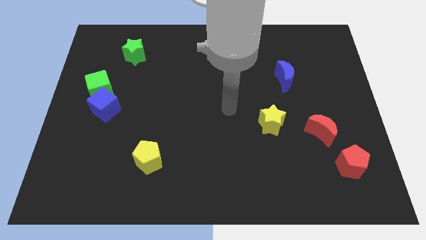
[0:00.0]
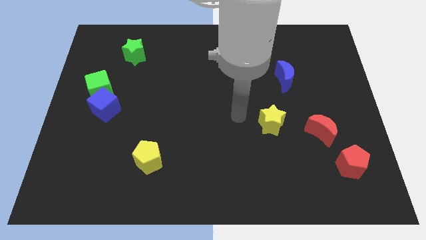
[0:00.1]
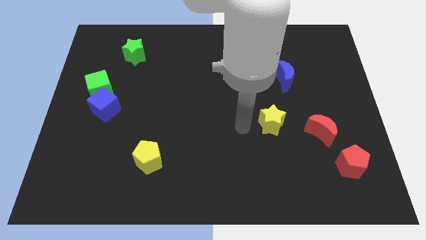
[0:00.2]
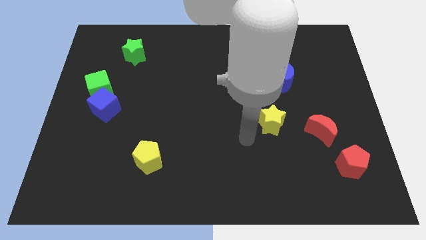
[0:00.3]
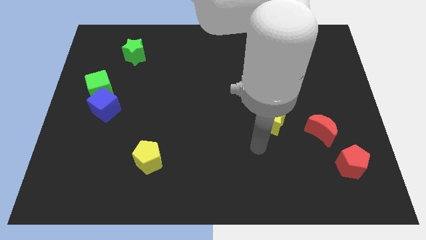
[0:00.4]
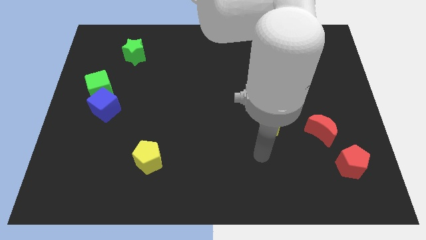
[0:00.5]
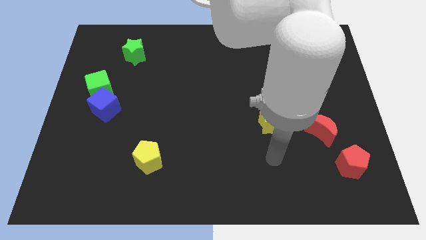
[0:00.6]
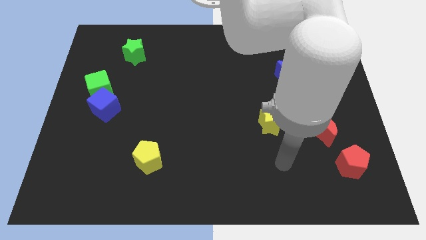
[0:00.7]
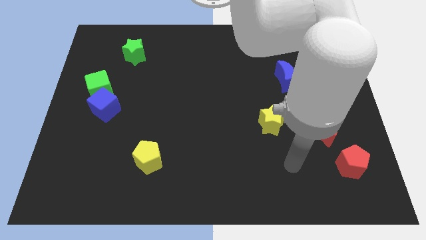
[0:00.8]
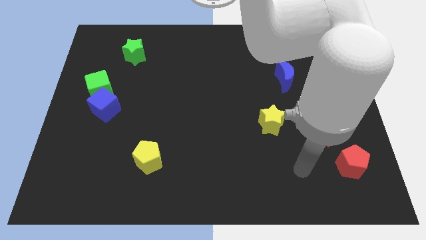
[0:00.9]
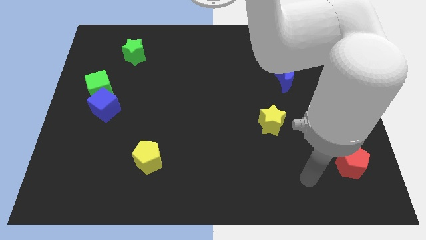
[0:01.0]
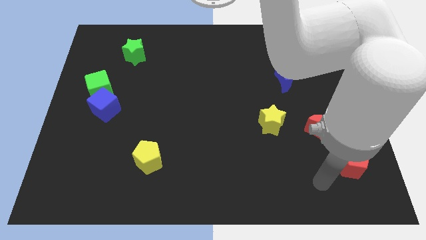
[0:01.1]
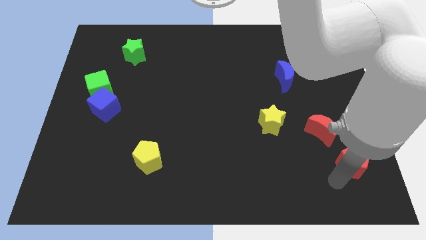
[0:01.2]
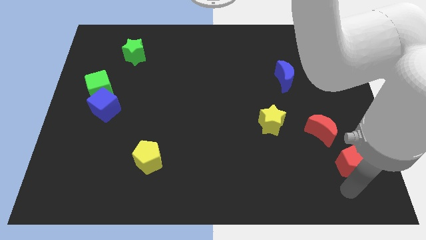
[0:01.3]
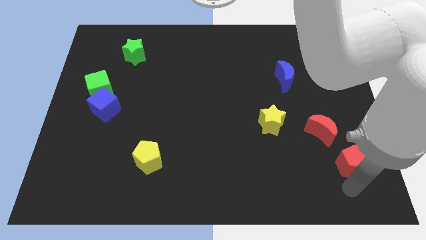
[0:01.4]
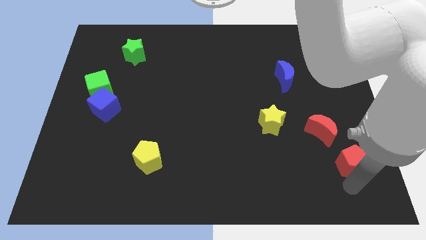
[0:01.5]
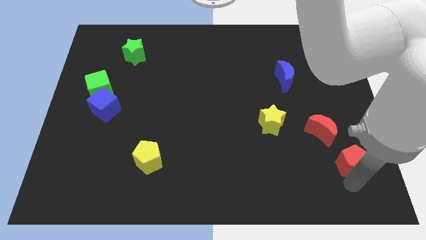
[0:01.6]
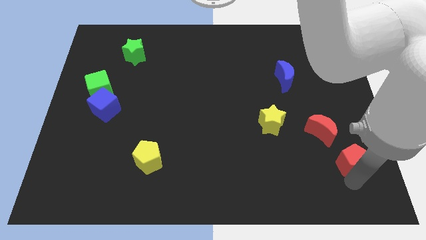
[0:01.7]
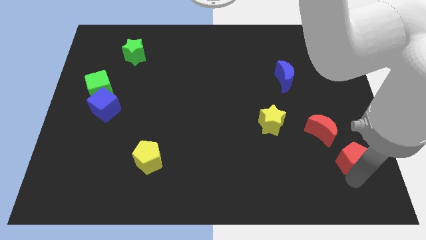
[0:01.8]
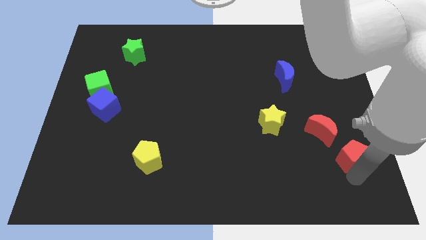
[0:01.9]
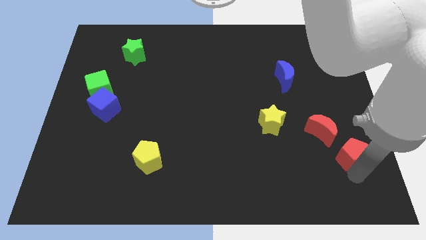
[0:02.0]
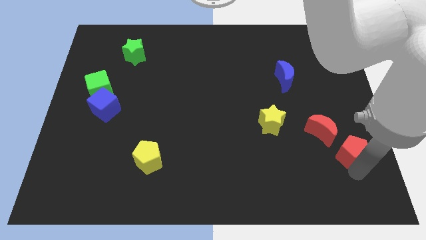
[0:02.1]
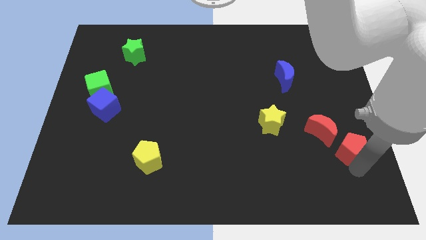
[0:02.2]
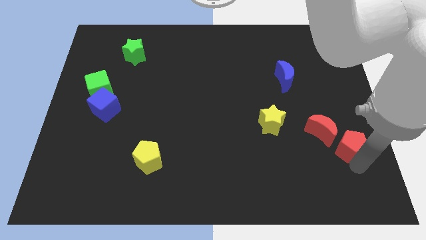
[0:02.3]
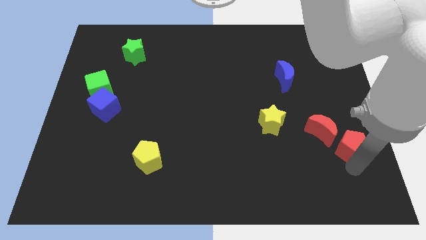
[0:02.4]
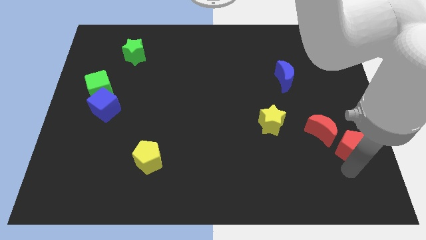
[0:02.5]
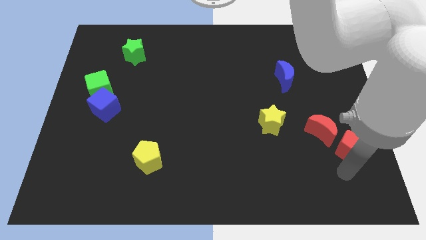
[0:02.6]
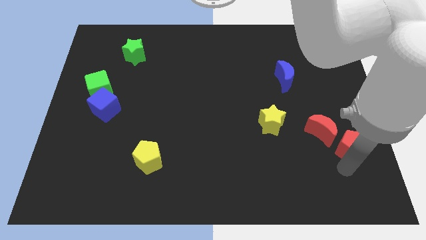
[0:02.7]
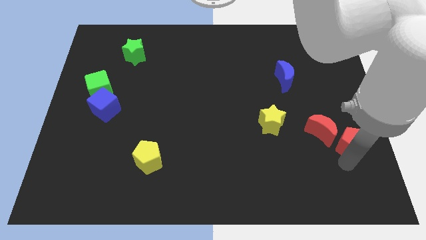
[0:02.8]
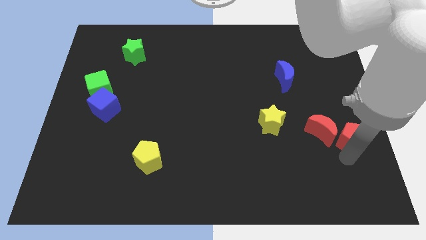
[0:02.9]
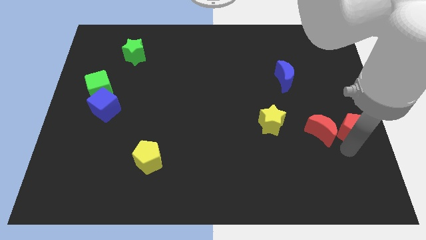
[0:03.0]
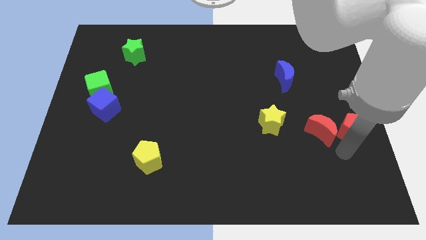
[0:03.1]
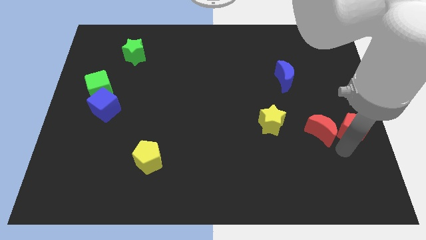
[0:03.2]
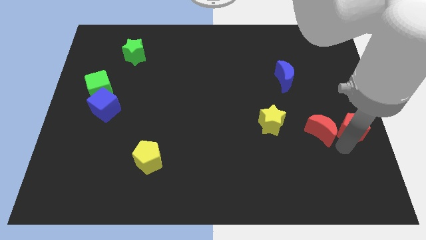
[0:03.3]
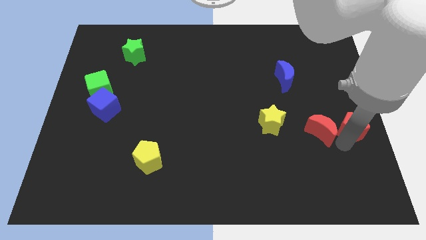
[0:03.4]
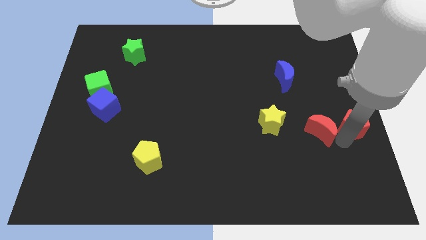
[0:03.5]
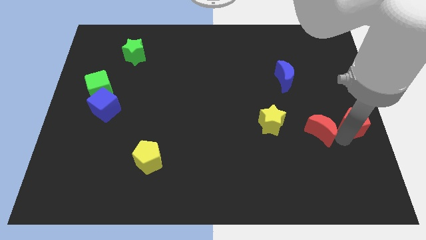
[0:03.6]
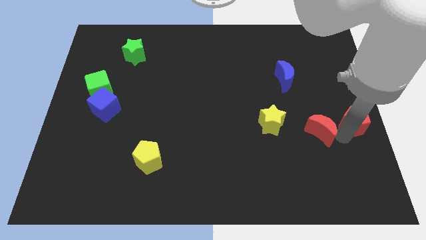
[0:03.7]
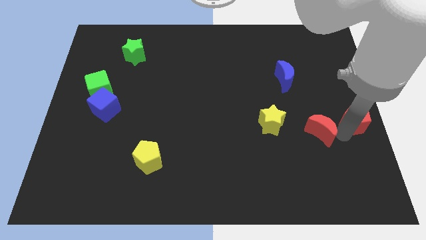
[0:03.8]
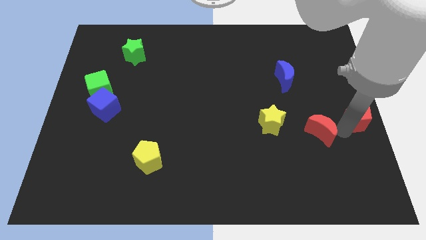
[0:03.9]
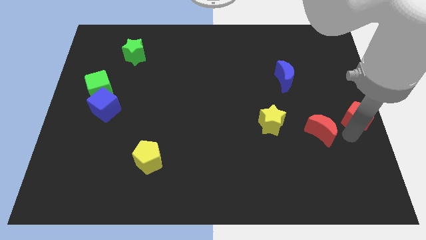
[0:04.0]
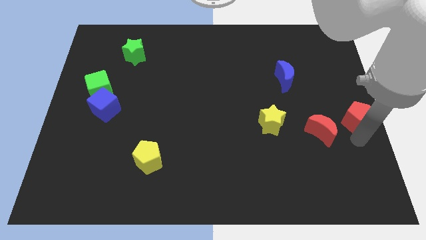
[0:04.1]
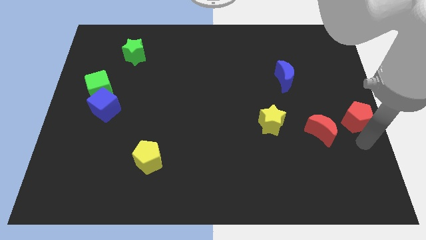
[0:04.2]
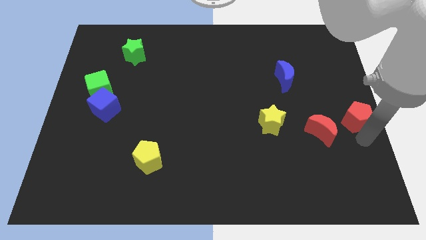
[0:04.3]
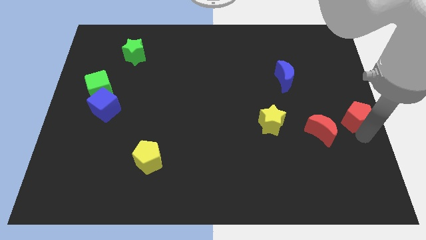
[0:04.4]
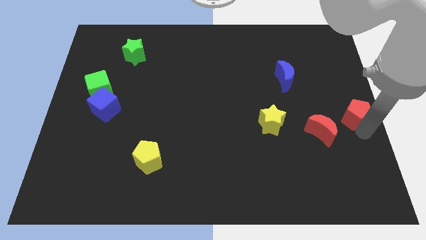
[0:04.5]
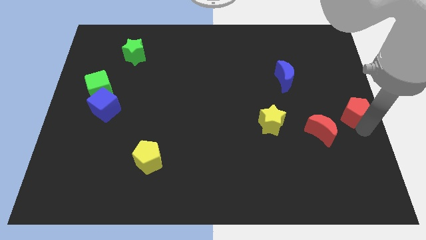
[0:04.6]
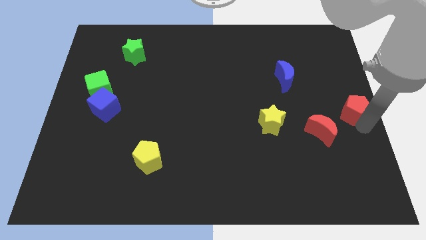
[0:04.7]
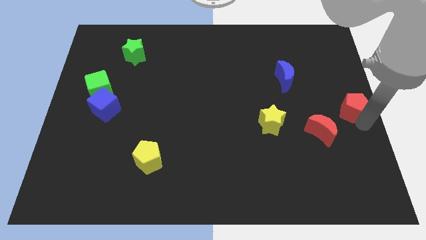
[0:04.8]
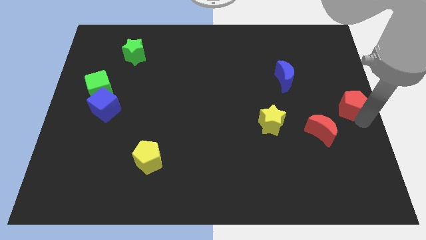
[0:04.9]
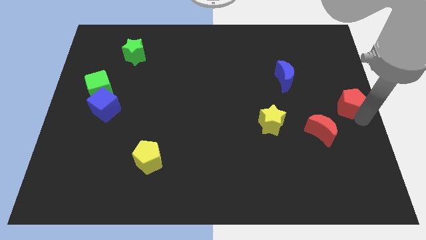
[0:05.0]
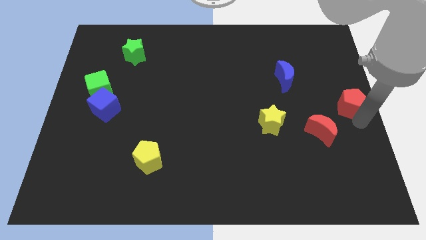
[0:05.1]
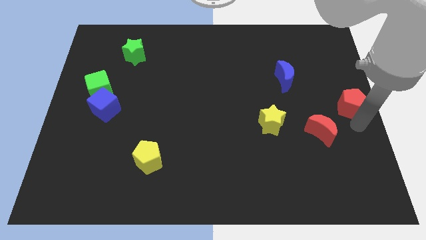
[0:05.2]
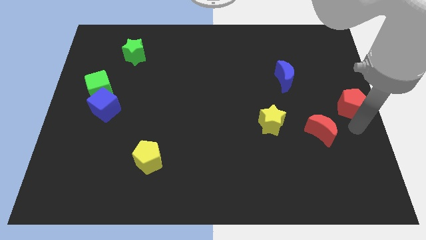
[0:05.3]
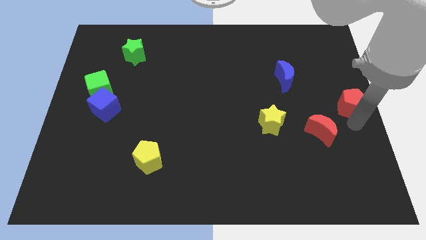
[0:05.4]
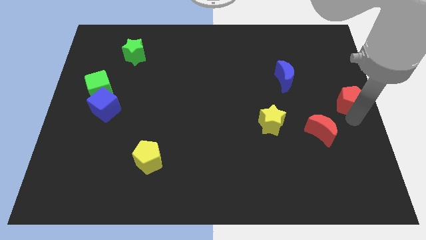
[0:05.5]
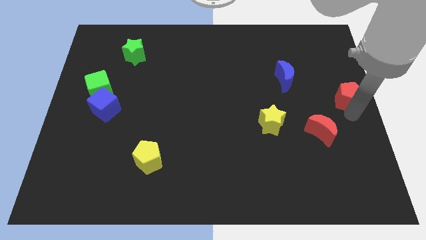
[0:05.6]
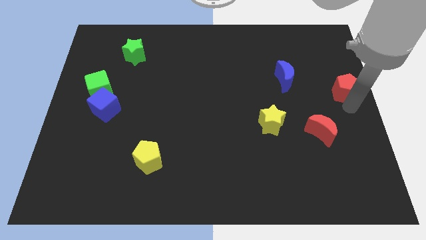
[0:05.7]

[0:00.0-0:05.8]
slide the red pentagon upwards

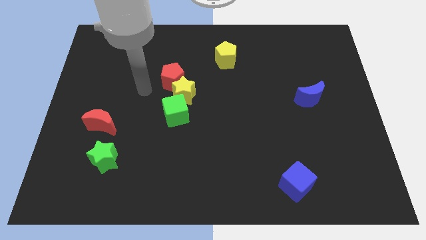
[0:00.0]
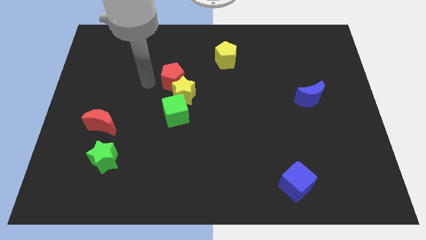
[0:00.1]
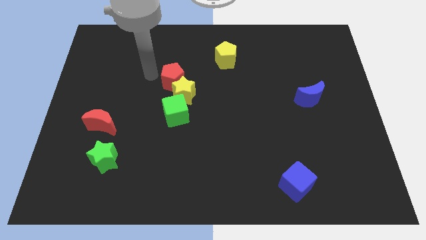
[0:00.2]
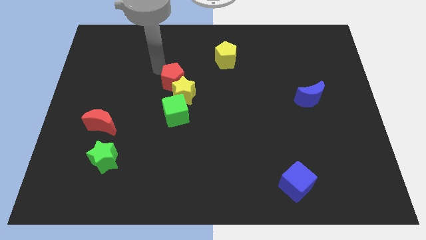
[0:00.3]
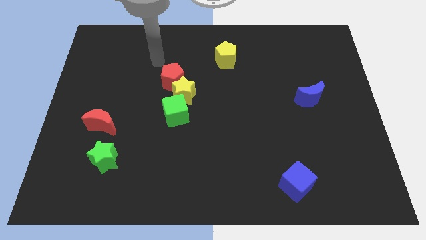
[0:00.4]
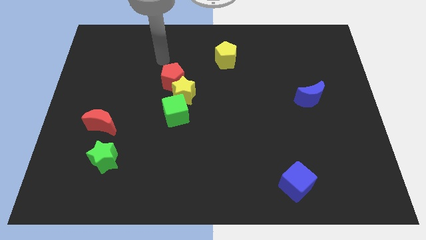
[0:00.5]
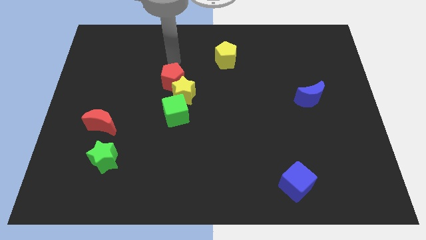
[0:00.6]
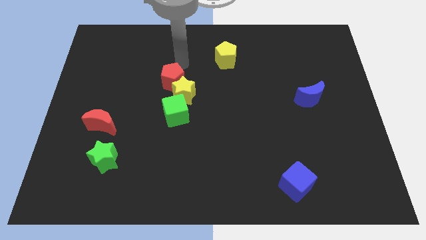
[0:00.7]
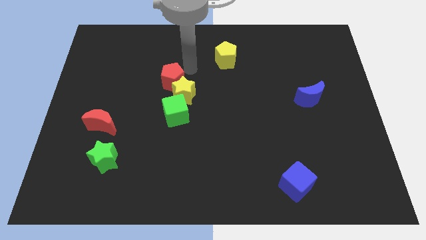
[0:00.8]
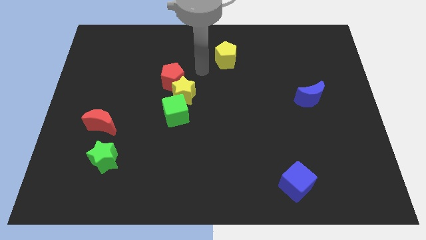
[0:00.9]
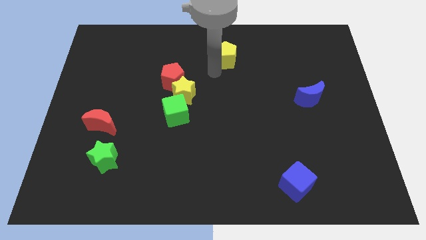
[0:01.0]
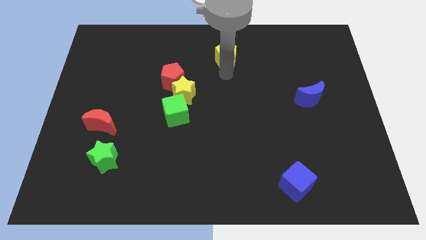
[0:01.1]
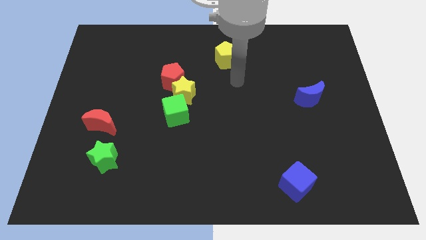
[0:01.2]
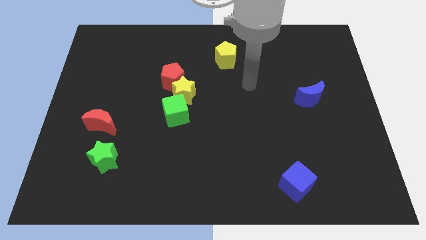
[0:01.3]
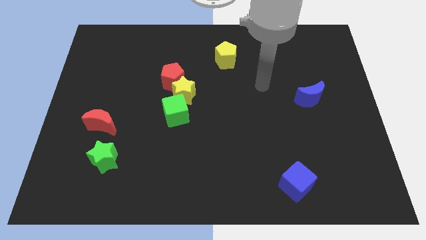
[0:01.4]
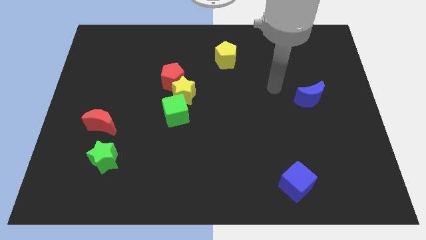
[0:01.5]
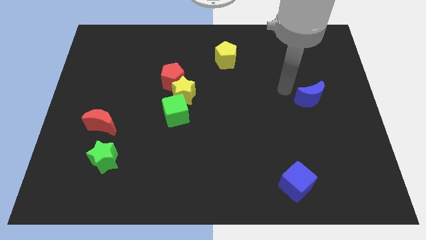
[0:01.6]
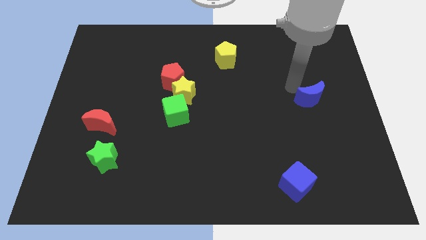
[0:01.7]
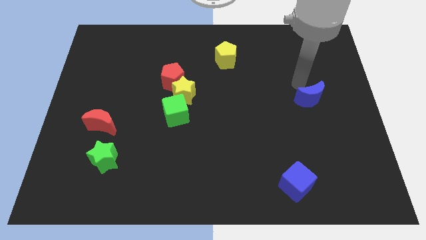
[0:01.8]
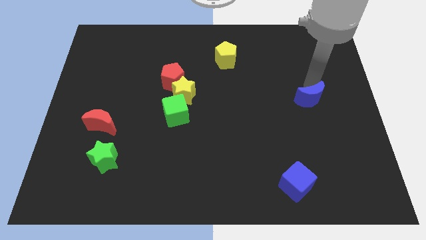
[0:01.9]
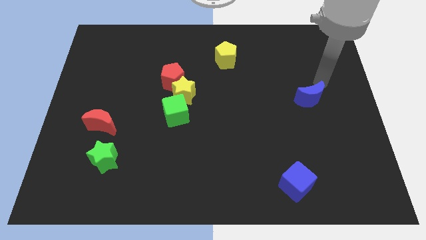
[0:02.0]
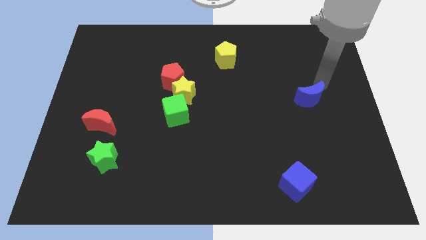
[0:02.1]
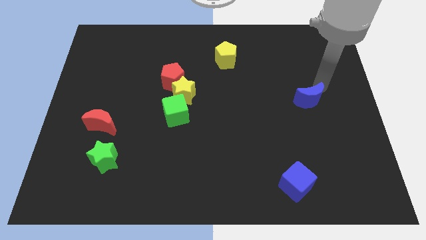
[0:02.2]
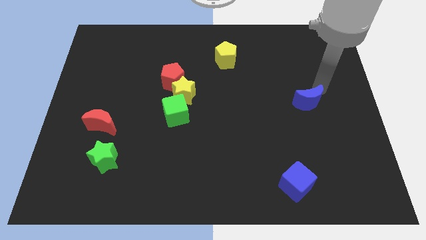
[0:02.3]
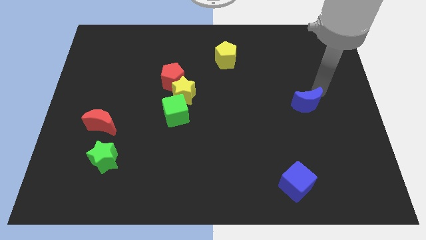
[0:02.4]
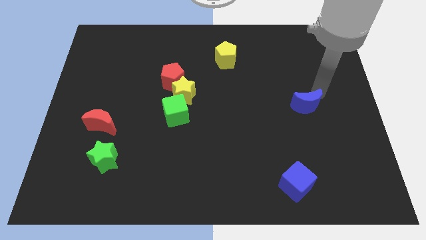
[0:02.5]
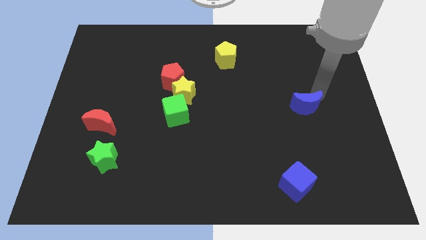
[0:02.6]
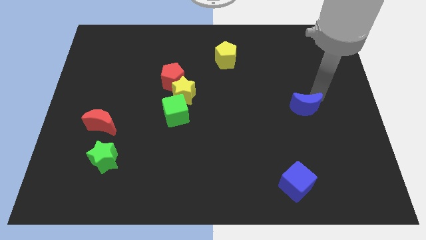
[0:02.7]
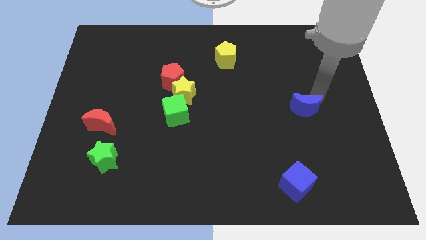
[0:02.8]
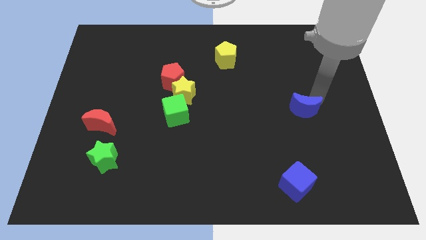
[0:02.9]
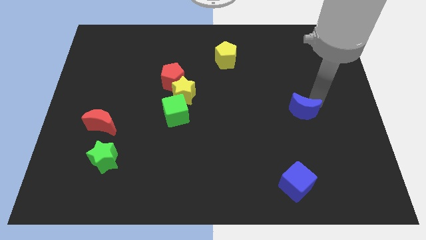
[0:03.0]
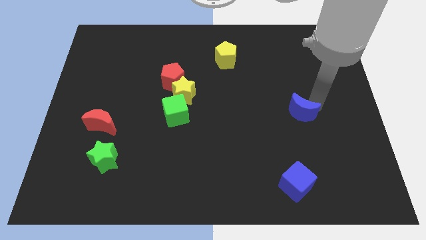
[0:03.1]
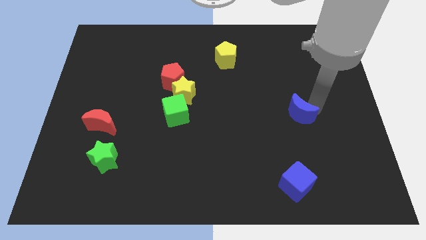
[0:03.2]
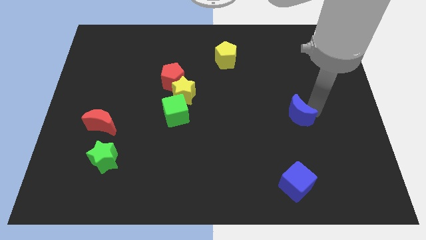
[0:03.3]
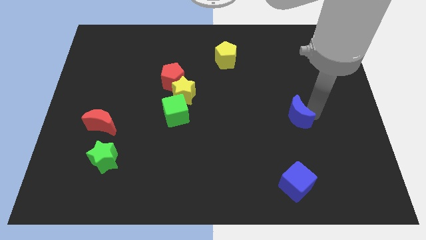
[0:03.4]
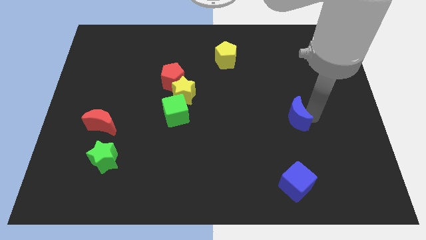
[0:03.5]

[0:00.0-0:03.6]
slightly slide the blue moon diagonally down and left
